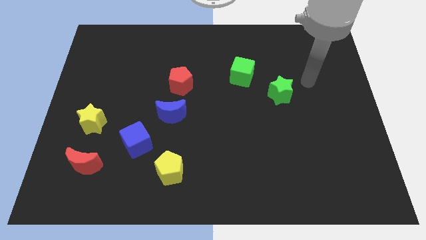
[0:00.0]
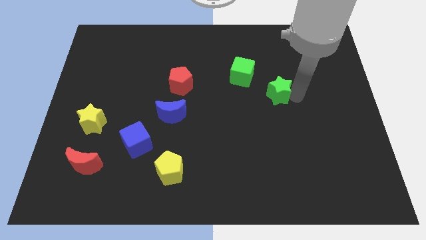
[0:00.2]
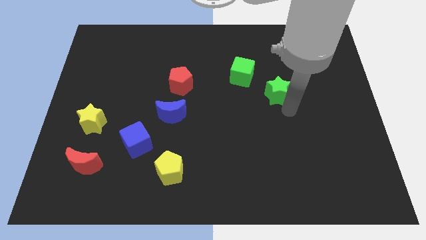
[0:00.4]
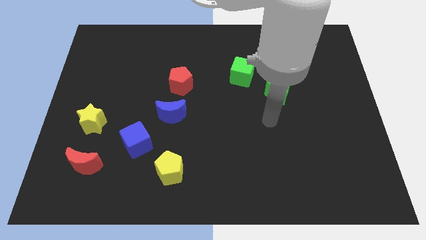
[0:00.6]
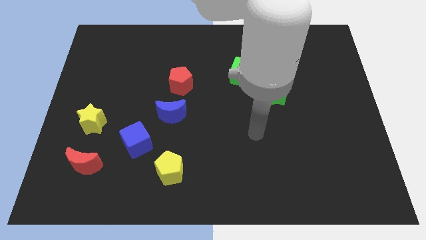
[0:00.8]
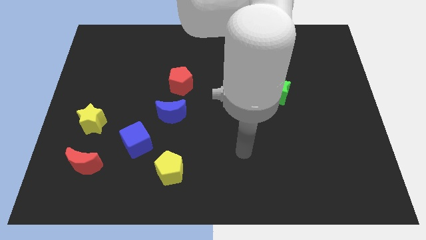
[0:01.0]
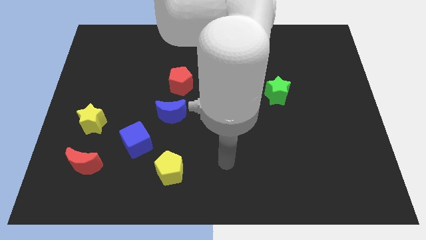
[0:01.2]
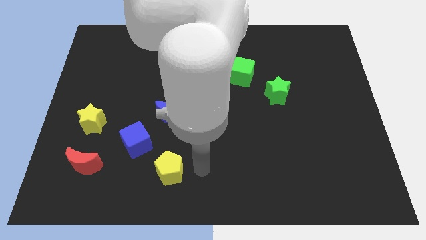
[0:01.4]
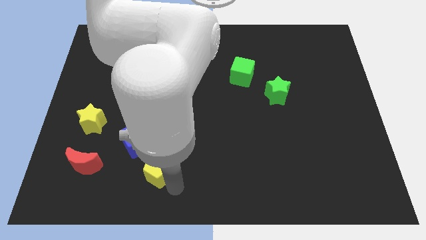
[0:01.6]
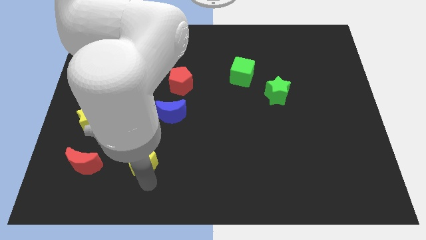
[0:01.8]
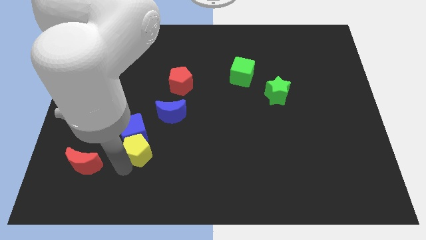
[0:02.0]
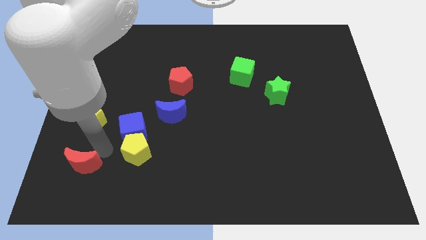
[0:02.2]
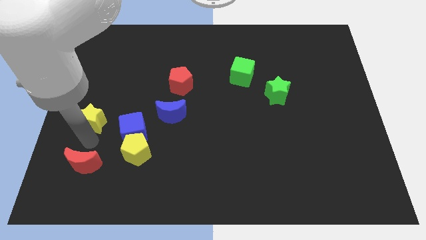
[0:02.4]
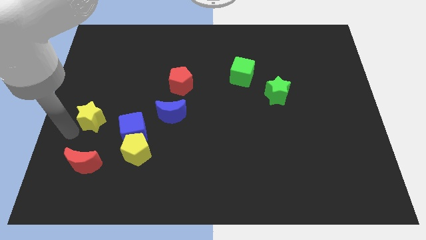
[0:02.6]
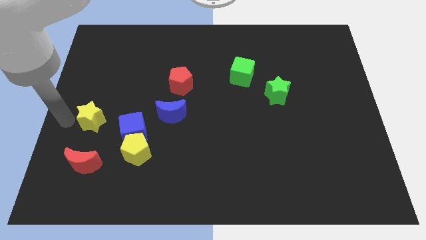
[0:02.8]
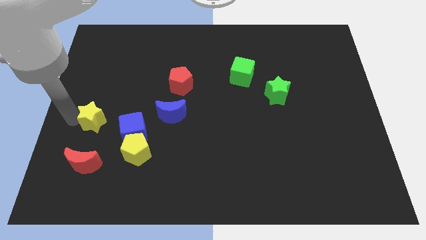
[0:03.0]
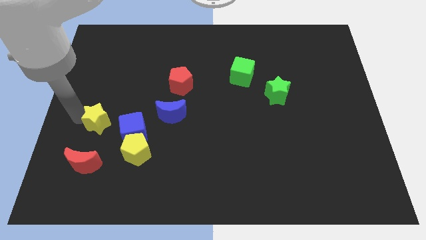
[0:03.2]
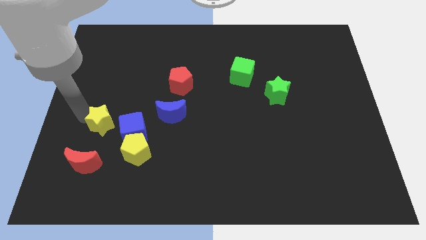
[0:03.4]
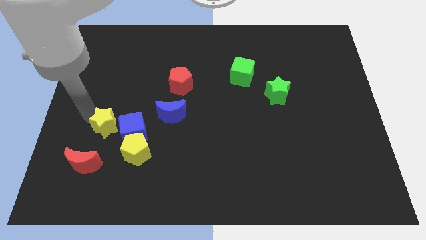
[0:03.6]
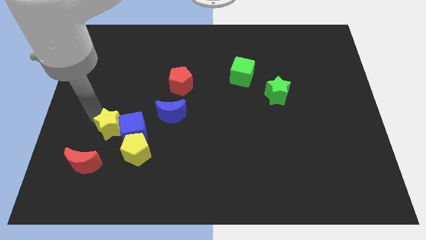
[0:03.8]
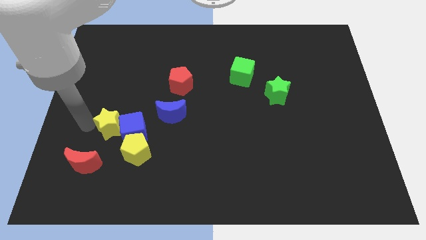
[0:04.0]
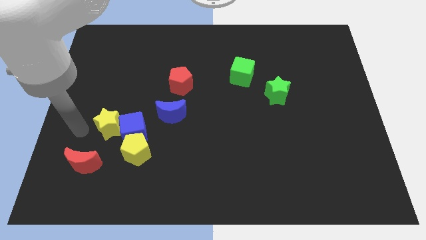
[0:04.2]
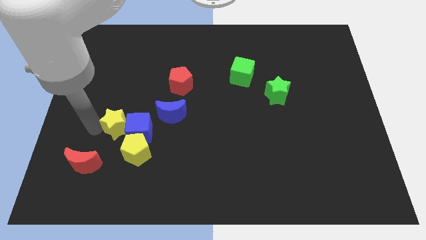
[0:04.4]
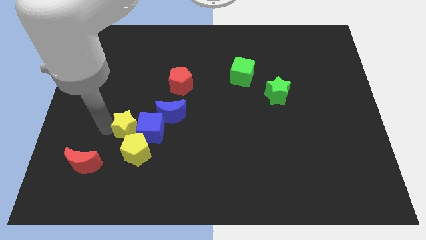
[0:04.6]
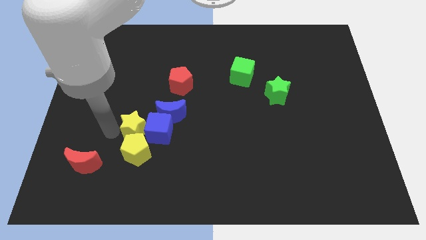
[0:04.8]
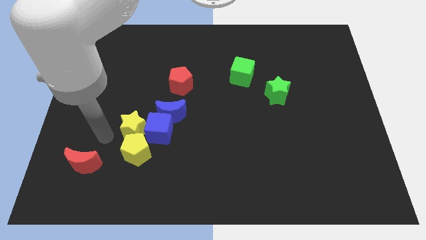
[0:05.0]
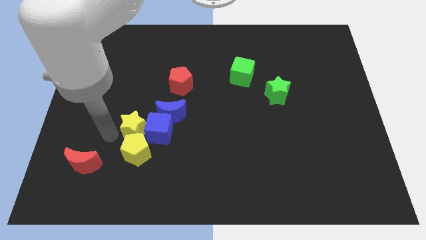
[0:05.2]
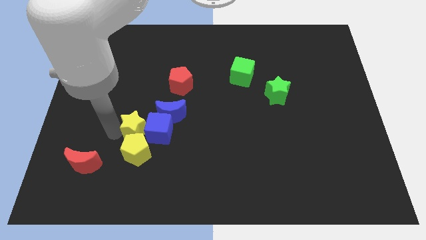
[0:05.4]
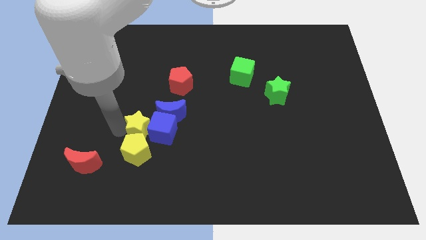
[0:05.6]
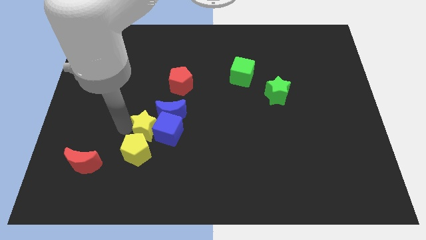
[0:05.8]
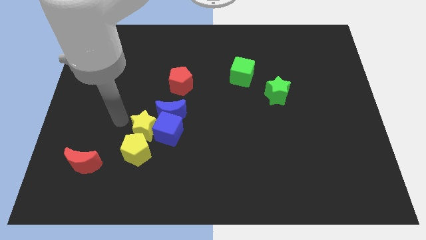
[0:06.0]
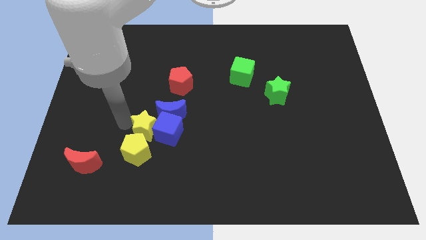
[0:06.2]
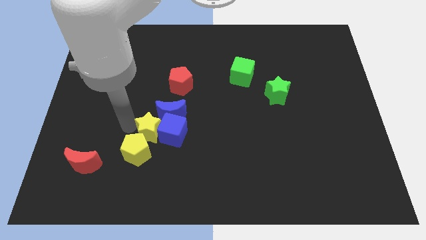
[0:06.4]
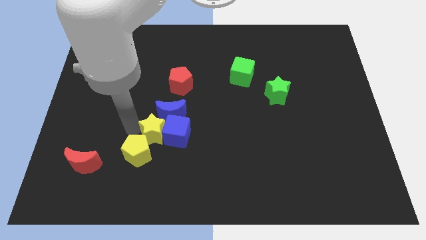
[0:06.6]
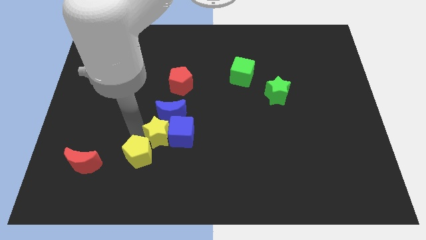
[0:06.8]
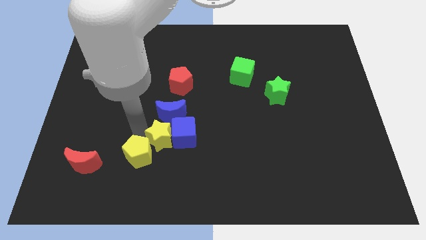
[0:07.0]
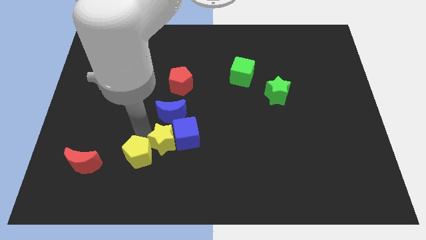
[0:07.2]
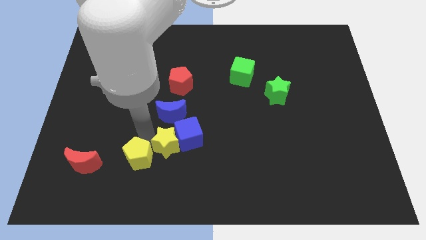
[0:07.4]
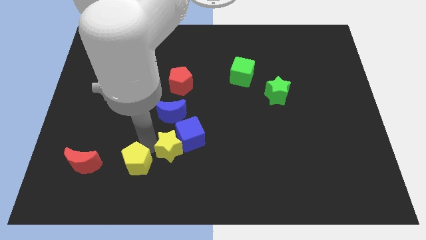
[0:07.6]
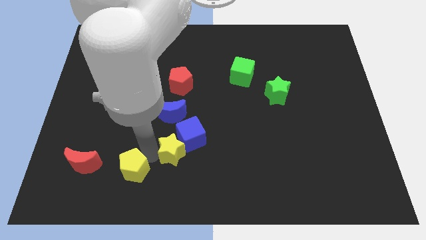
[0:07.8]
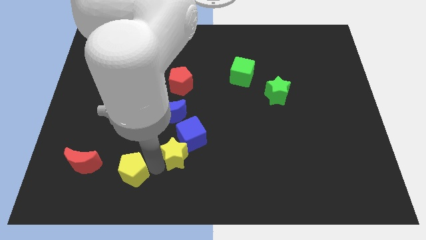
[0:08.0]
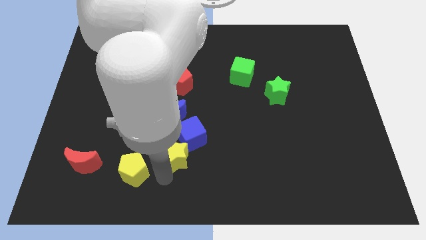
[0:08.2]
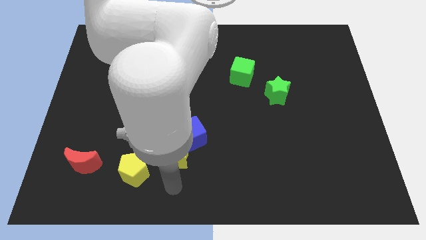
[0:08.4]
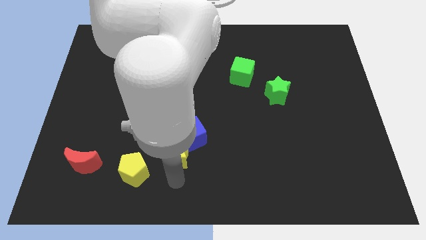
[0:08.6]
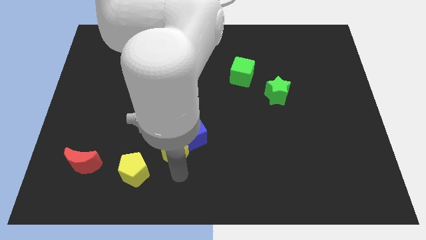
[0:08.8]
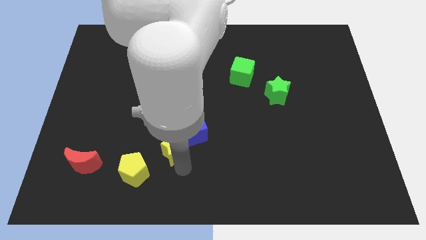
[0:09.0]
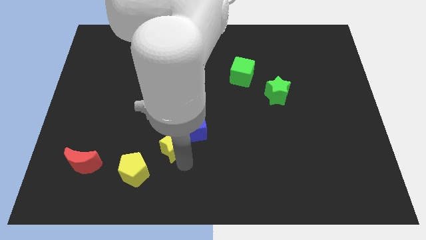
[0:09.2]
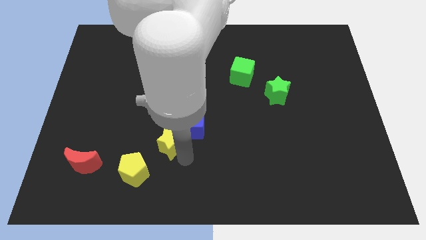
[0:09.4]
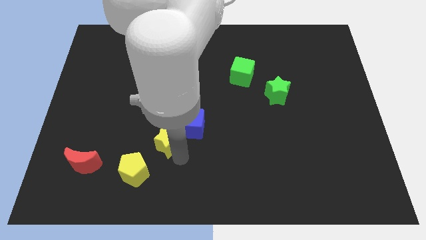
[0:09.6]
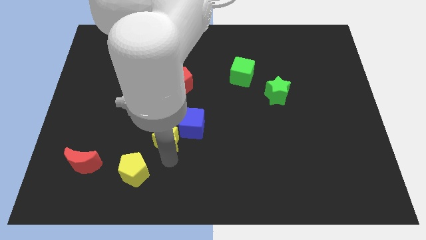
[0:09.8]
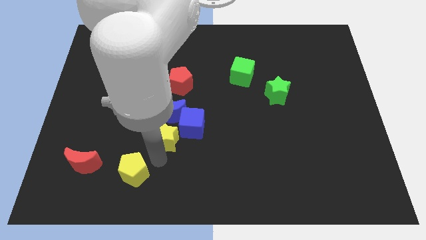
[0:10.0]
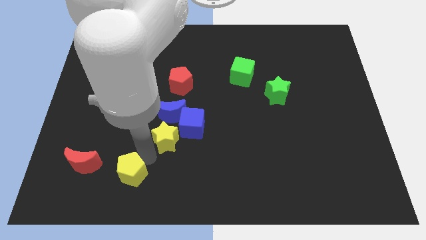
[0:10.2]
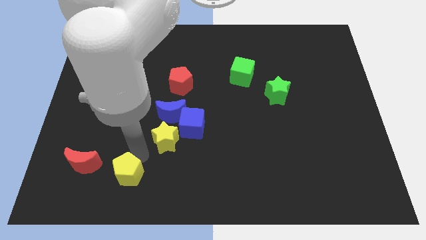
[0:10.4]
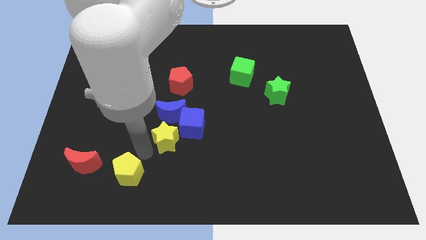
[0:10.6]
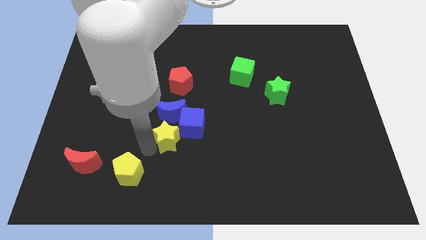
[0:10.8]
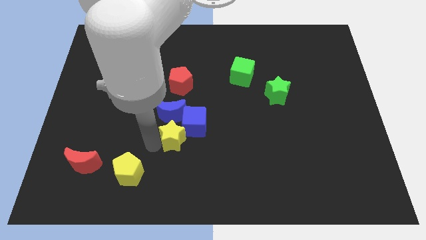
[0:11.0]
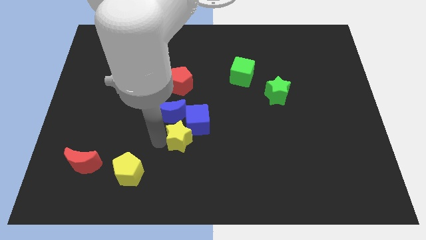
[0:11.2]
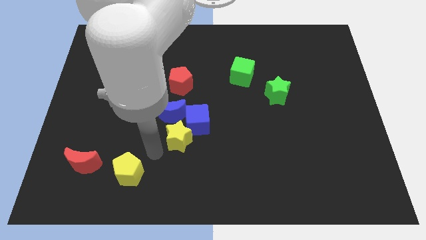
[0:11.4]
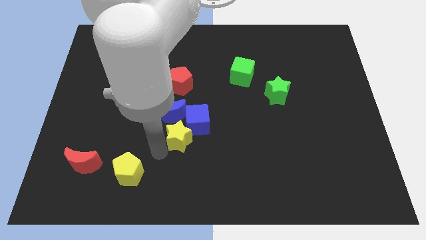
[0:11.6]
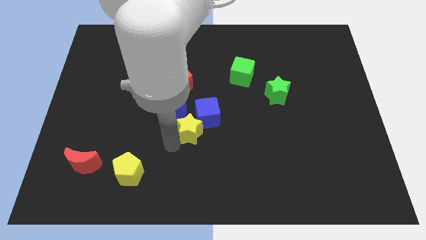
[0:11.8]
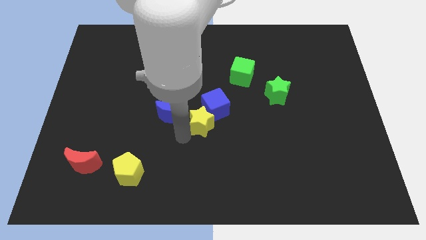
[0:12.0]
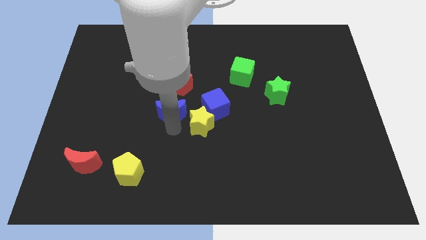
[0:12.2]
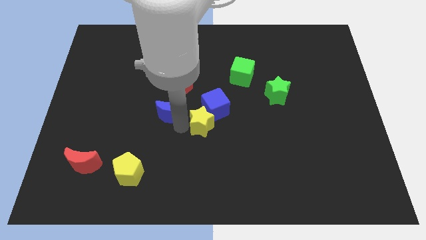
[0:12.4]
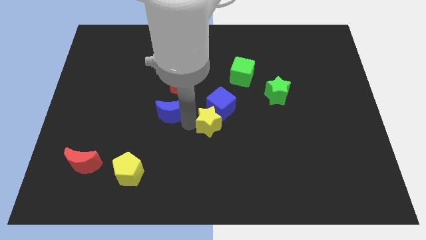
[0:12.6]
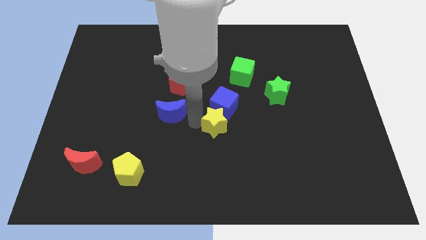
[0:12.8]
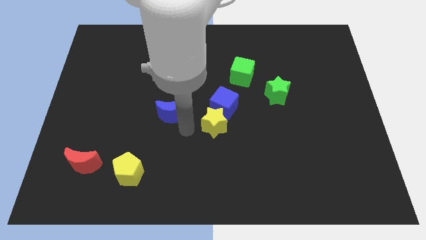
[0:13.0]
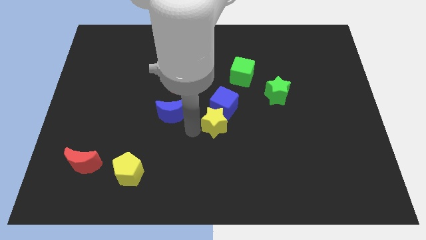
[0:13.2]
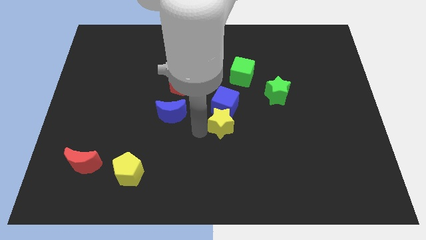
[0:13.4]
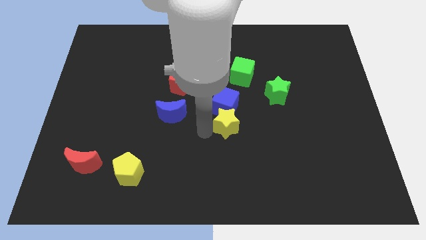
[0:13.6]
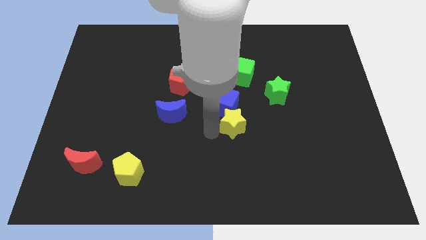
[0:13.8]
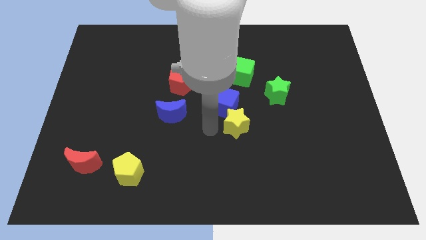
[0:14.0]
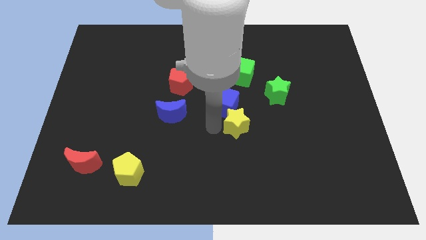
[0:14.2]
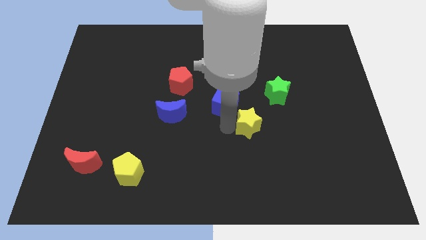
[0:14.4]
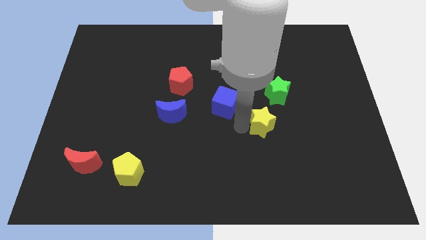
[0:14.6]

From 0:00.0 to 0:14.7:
move the yellow star below the green star

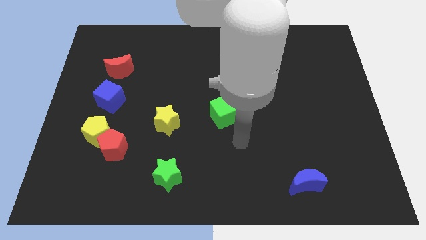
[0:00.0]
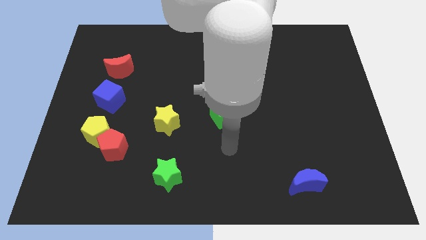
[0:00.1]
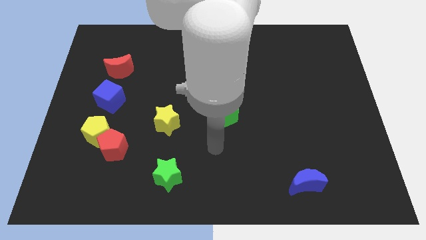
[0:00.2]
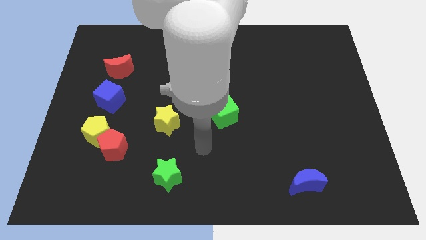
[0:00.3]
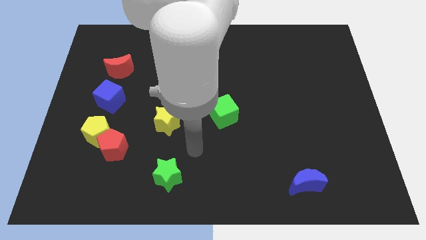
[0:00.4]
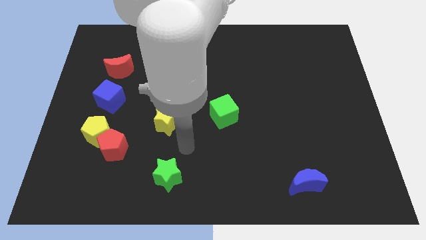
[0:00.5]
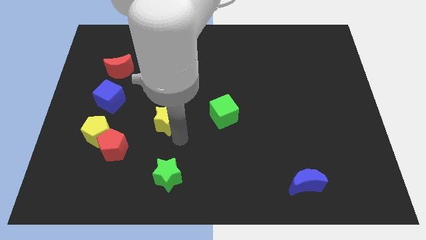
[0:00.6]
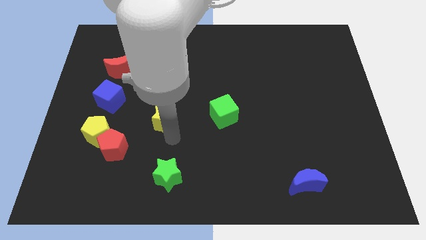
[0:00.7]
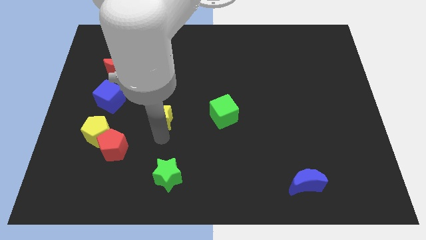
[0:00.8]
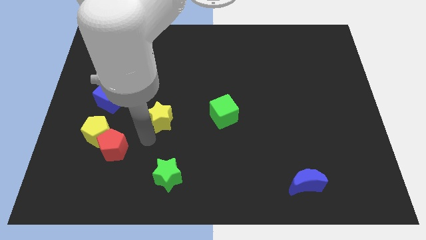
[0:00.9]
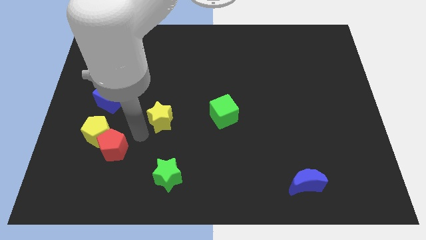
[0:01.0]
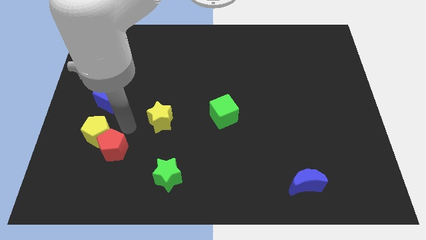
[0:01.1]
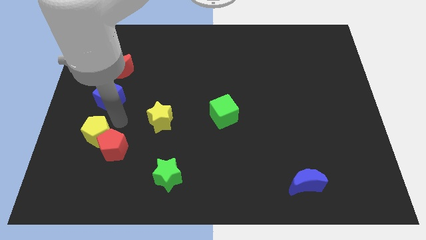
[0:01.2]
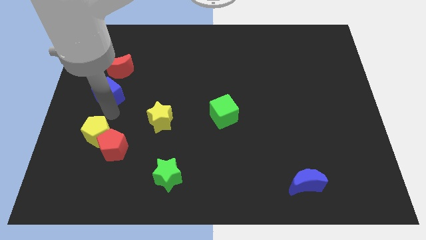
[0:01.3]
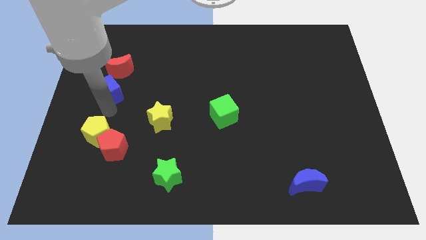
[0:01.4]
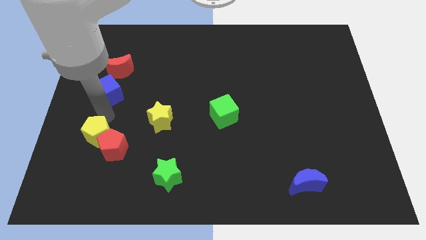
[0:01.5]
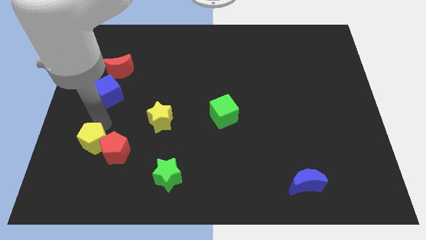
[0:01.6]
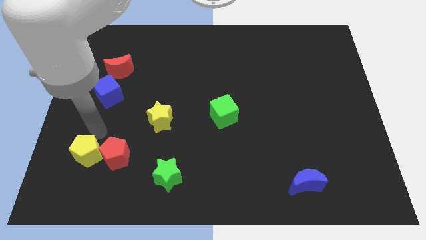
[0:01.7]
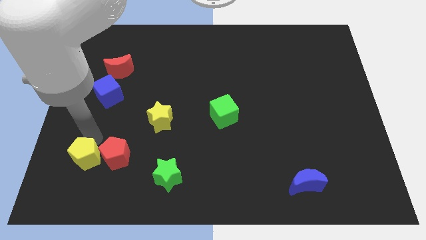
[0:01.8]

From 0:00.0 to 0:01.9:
push the yellow pentagon diagonally down and to the left of the red pentagon
